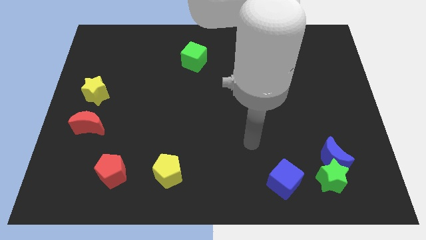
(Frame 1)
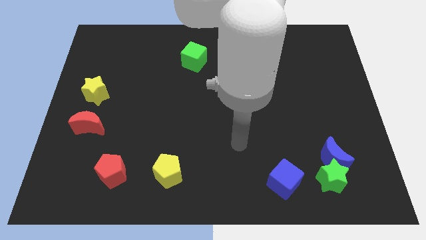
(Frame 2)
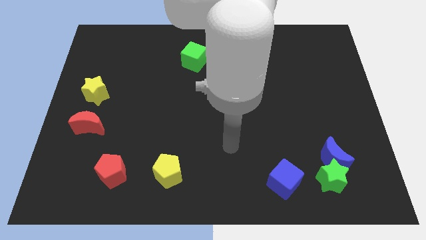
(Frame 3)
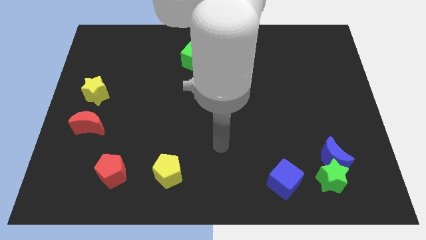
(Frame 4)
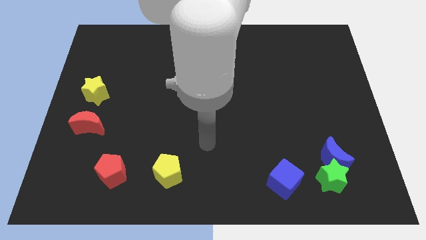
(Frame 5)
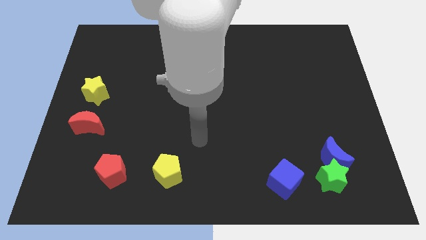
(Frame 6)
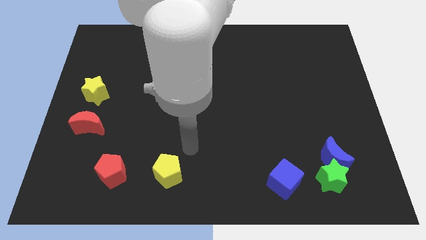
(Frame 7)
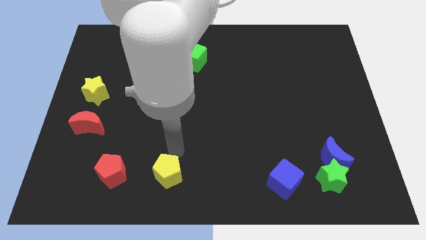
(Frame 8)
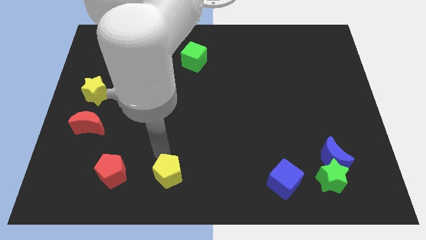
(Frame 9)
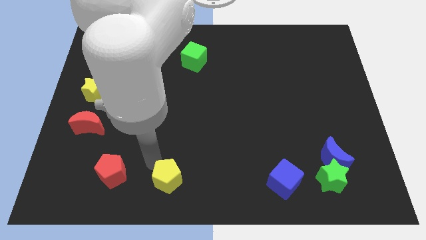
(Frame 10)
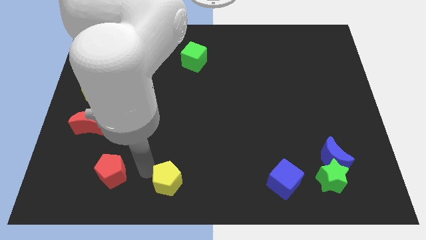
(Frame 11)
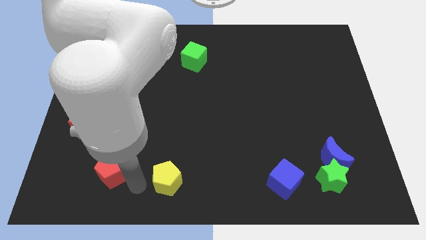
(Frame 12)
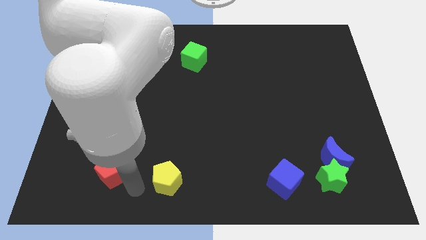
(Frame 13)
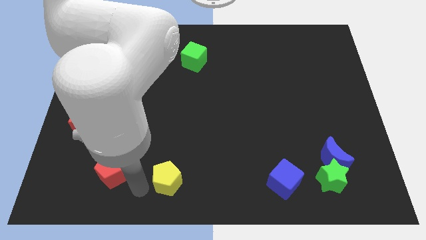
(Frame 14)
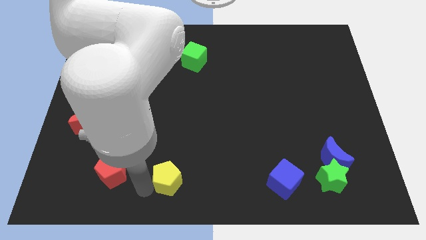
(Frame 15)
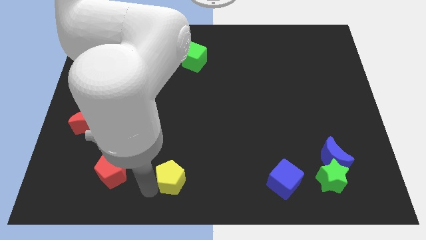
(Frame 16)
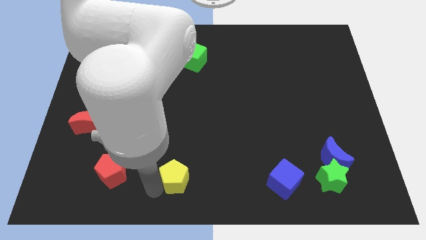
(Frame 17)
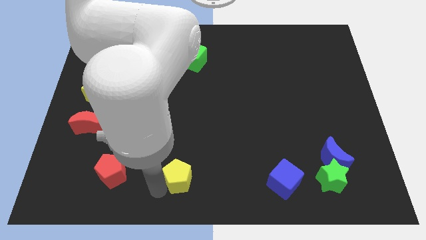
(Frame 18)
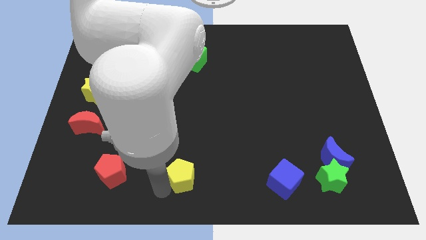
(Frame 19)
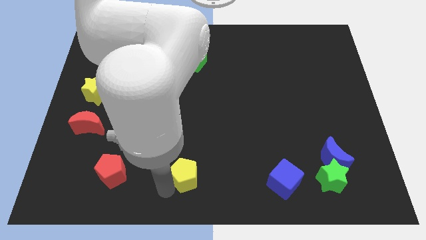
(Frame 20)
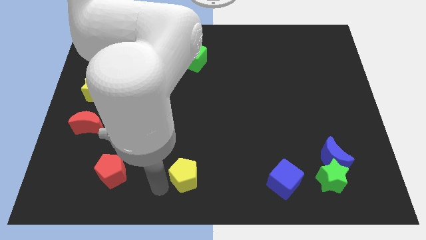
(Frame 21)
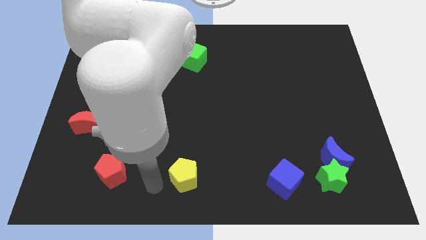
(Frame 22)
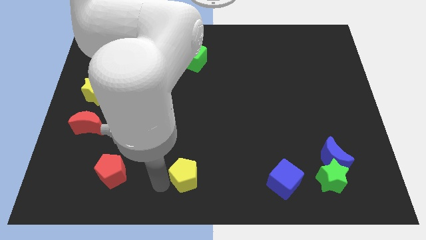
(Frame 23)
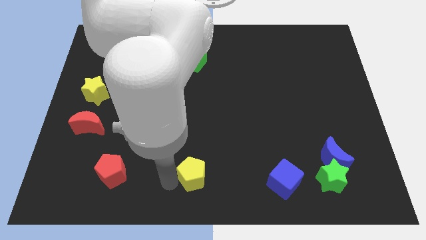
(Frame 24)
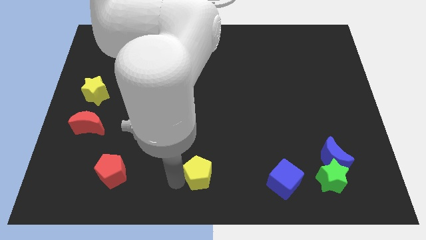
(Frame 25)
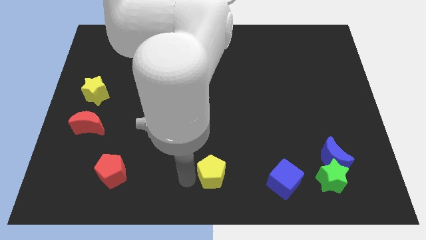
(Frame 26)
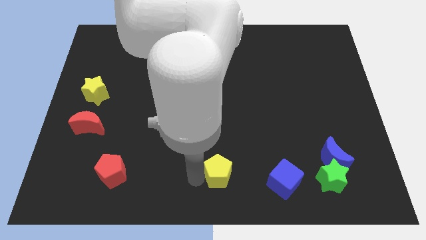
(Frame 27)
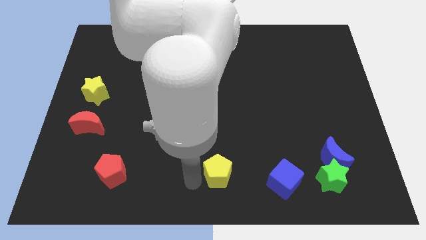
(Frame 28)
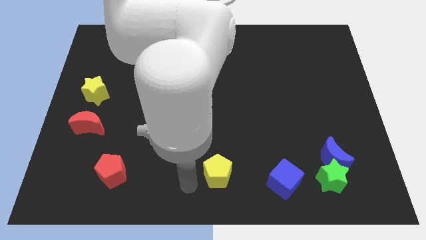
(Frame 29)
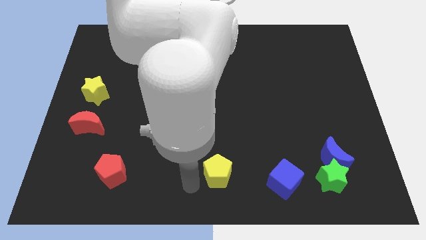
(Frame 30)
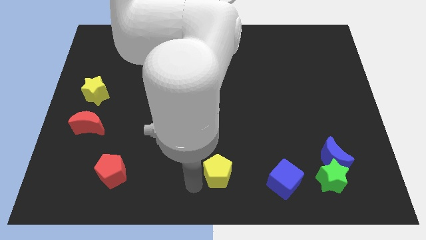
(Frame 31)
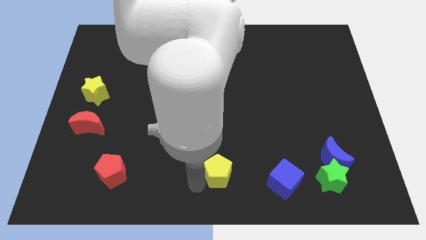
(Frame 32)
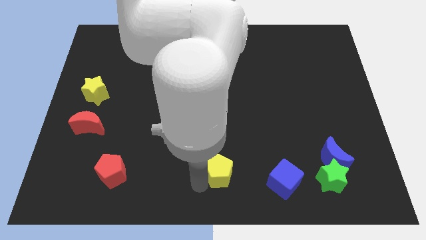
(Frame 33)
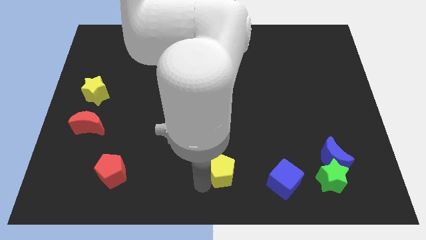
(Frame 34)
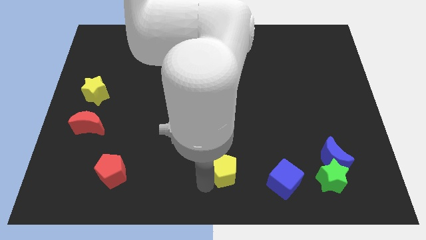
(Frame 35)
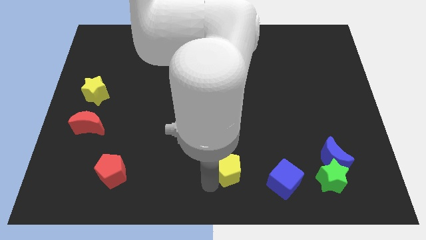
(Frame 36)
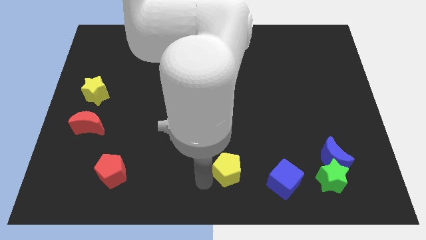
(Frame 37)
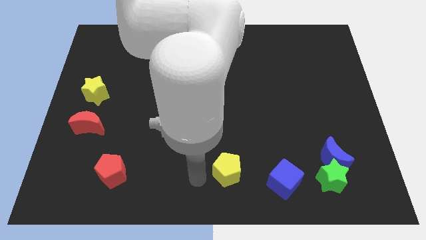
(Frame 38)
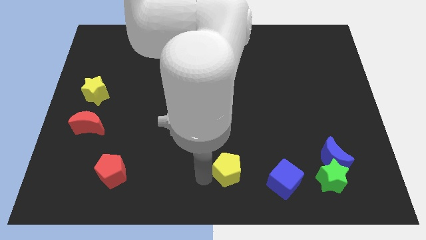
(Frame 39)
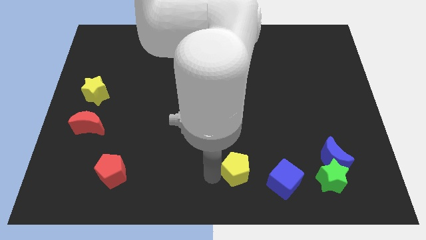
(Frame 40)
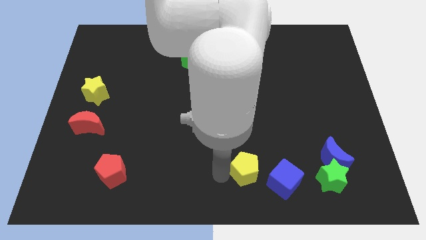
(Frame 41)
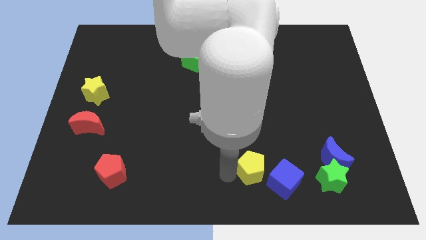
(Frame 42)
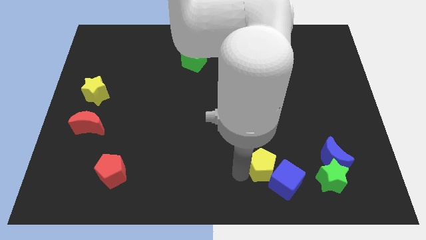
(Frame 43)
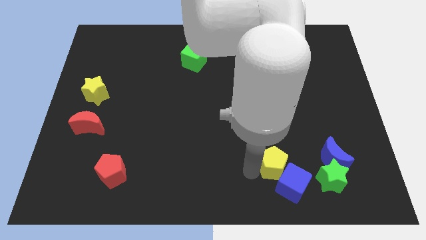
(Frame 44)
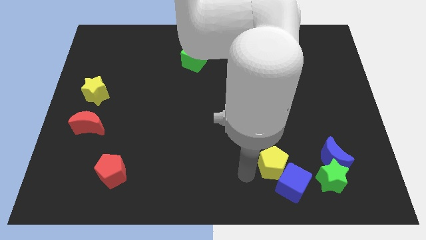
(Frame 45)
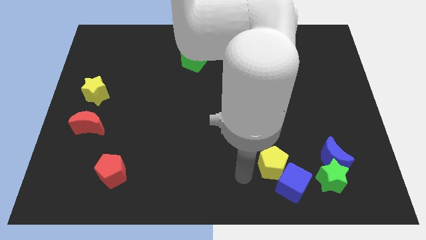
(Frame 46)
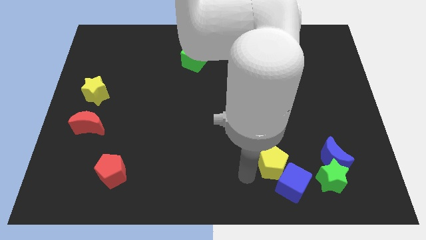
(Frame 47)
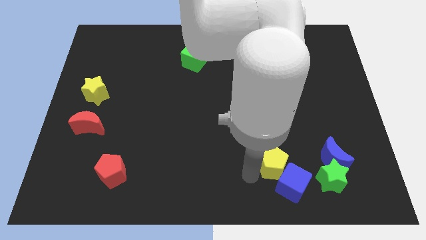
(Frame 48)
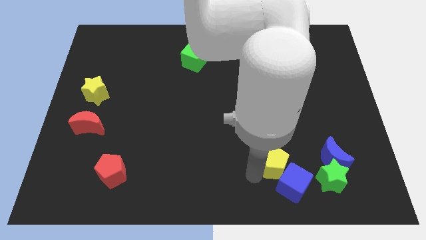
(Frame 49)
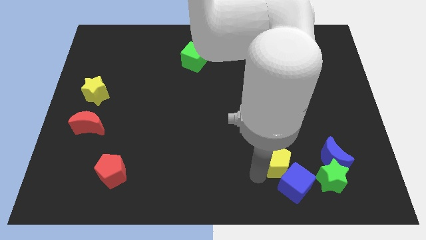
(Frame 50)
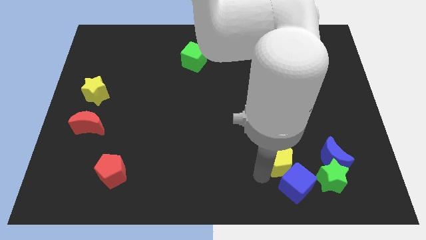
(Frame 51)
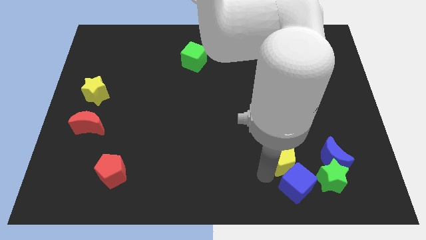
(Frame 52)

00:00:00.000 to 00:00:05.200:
slide the yellow pentagon diagonally up and to the left of the green star

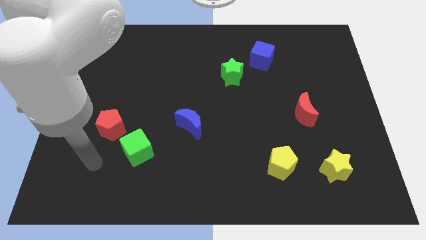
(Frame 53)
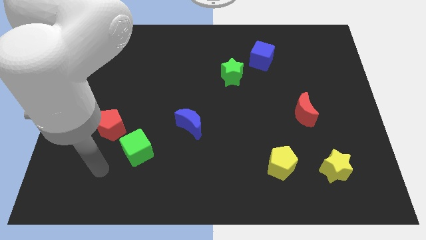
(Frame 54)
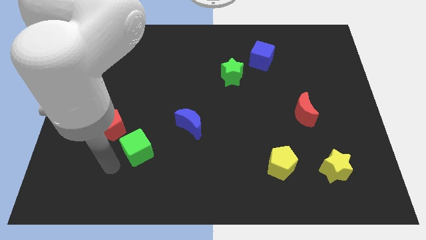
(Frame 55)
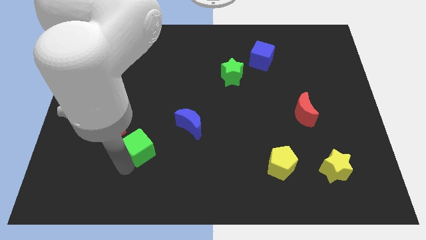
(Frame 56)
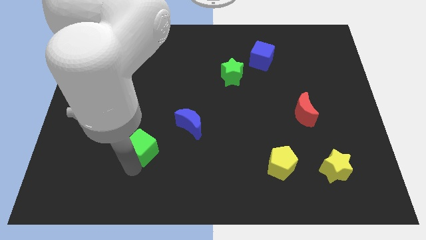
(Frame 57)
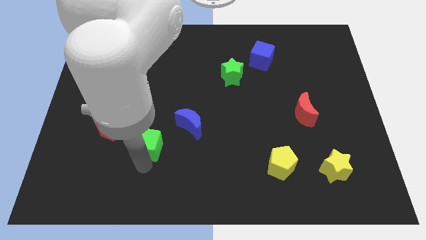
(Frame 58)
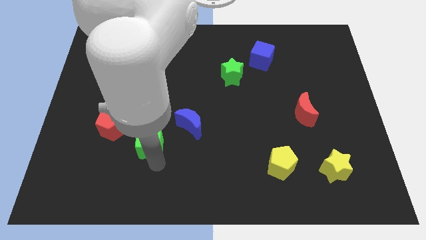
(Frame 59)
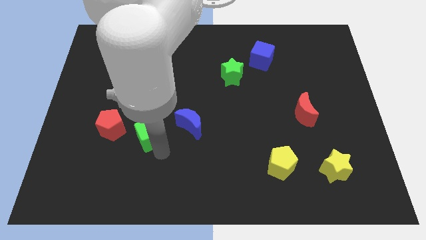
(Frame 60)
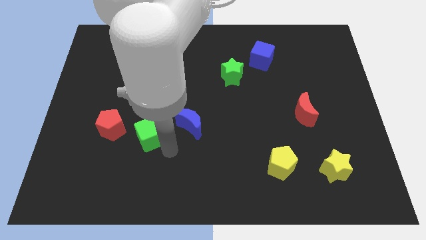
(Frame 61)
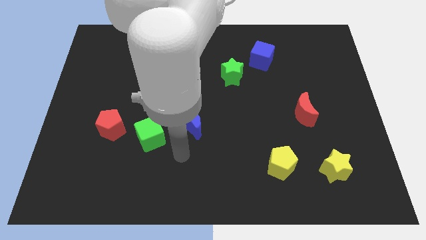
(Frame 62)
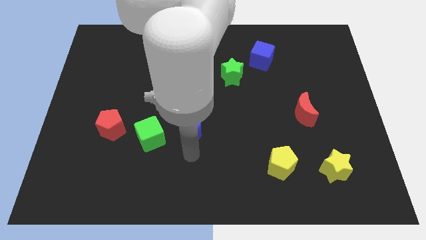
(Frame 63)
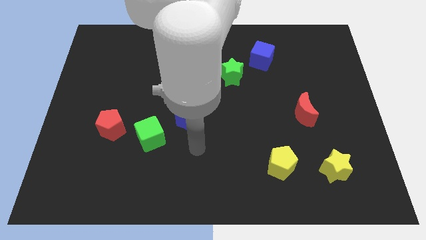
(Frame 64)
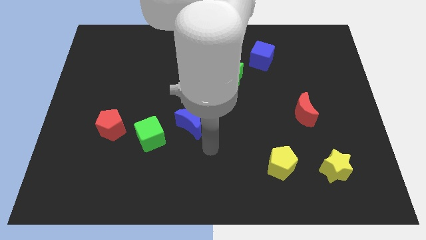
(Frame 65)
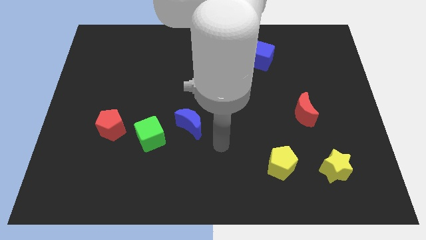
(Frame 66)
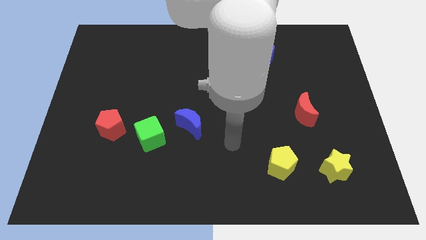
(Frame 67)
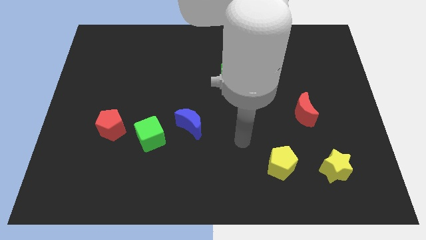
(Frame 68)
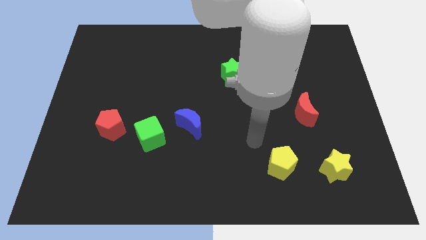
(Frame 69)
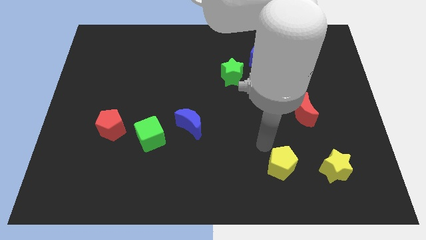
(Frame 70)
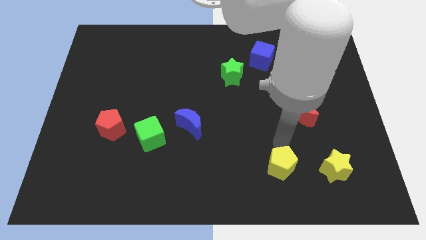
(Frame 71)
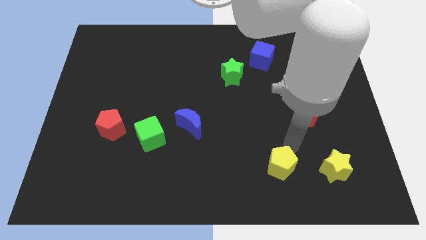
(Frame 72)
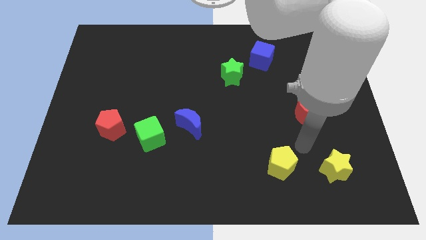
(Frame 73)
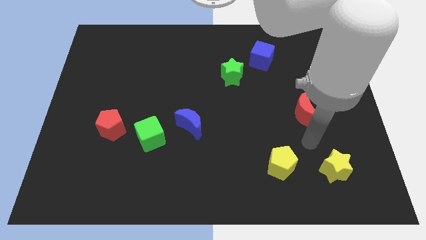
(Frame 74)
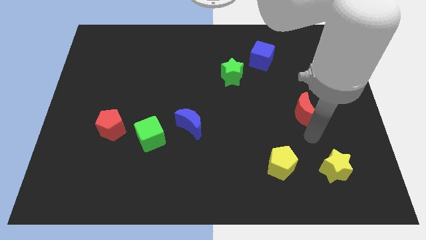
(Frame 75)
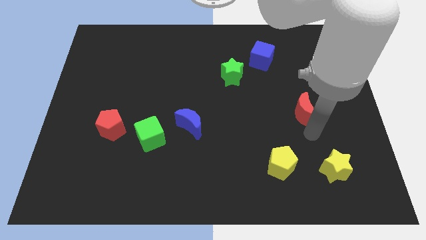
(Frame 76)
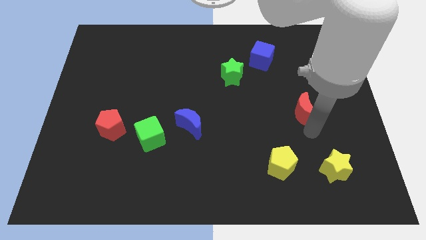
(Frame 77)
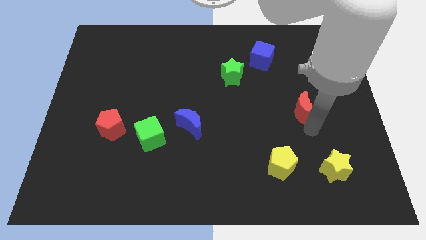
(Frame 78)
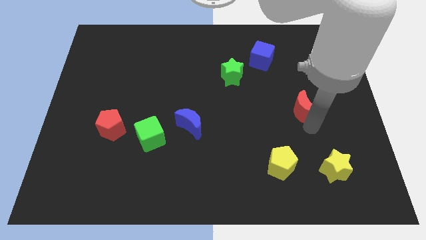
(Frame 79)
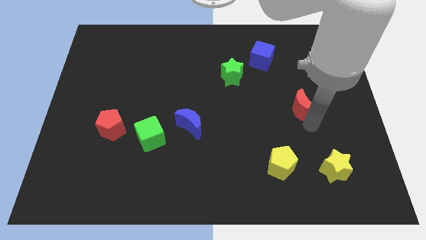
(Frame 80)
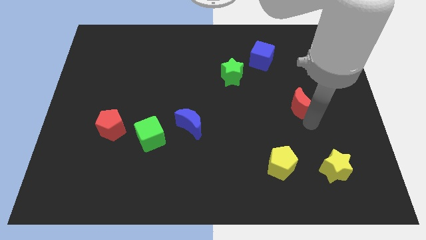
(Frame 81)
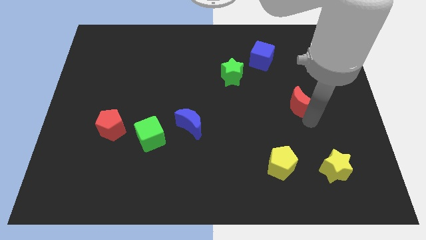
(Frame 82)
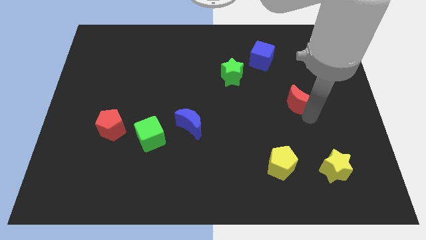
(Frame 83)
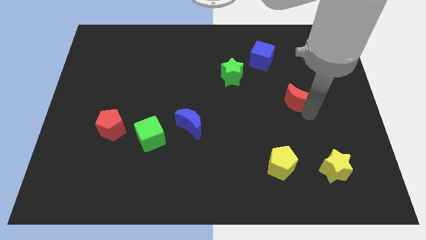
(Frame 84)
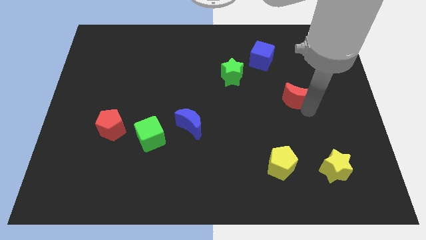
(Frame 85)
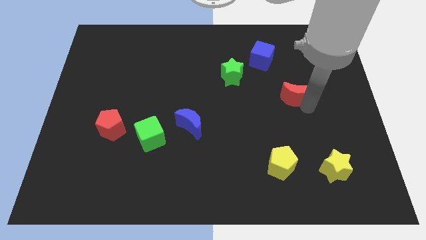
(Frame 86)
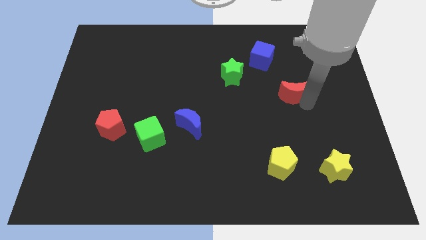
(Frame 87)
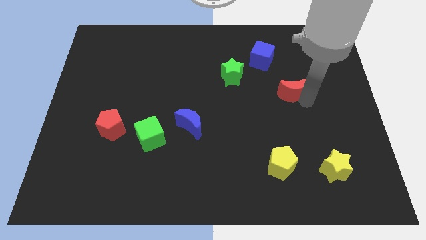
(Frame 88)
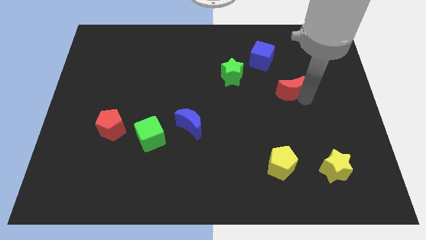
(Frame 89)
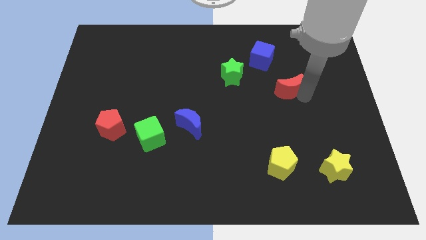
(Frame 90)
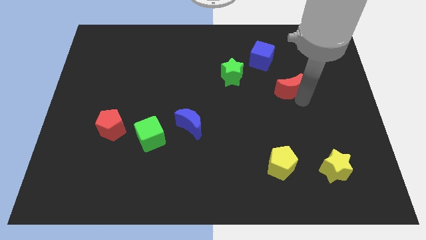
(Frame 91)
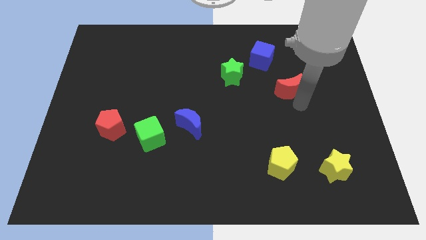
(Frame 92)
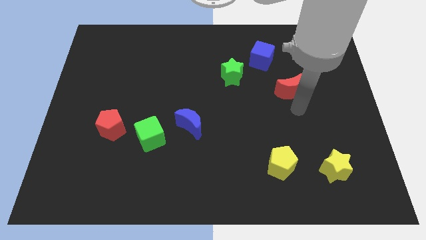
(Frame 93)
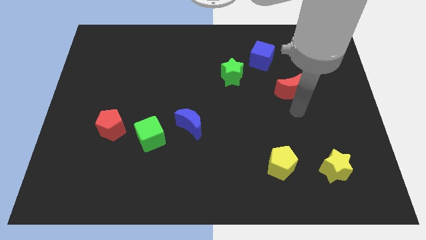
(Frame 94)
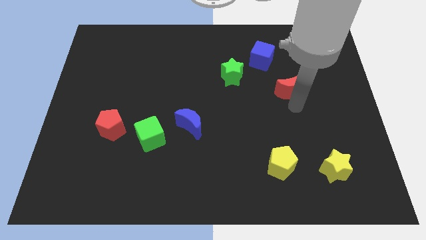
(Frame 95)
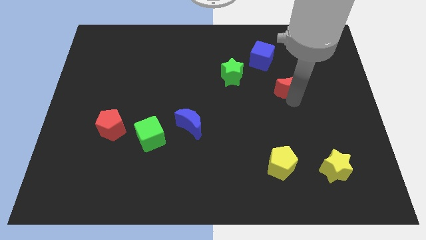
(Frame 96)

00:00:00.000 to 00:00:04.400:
move the red moon to the bottom right of the blue cube
